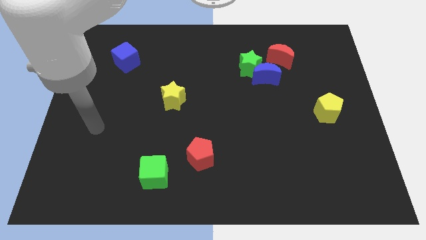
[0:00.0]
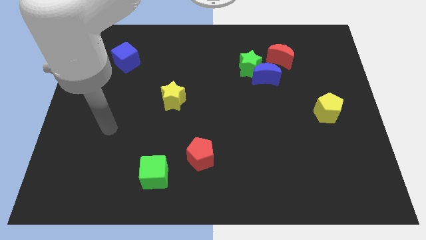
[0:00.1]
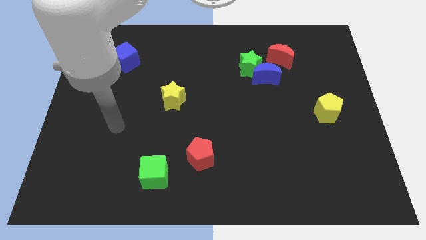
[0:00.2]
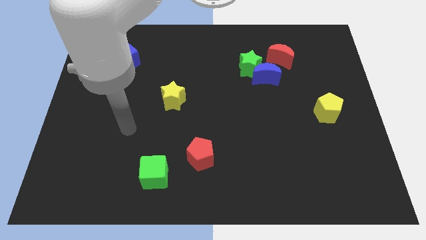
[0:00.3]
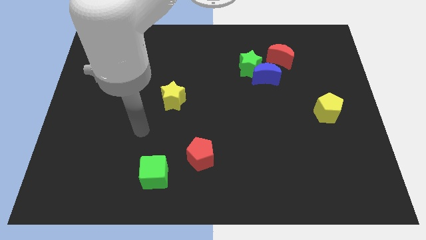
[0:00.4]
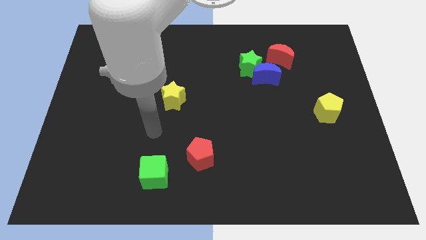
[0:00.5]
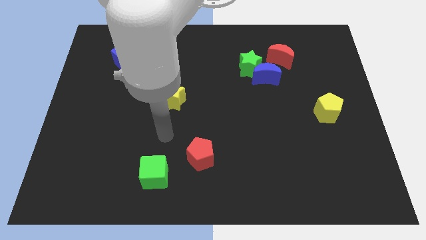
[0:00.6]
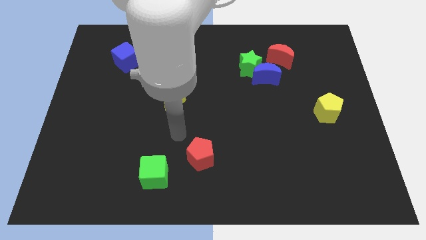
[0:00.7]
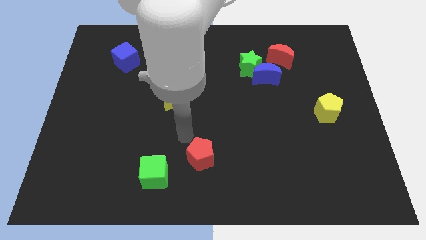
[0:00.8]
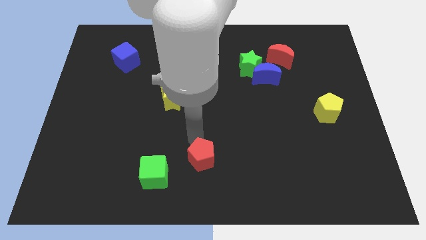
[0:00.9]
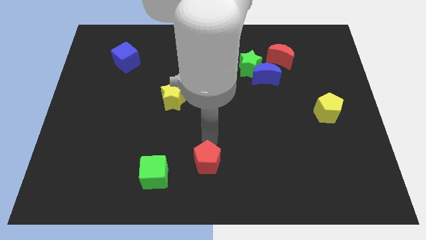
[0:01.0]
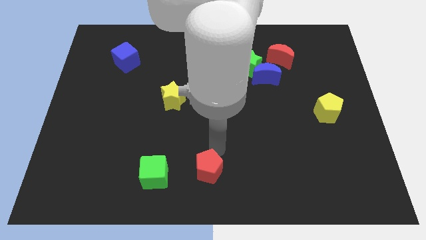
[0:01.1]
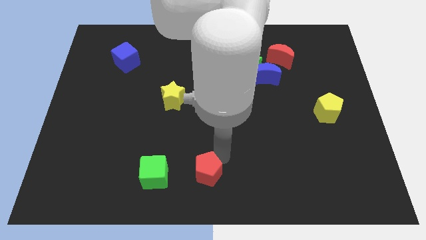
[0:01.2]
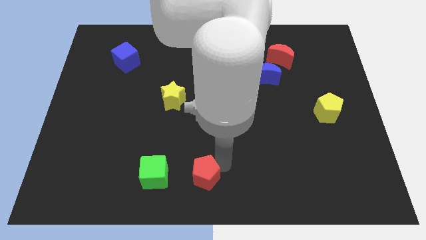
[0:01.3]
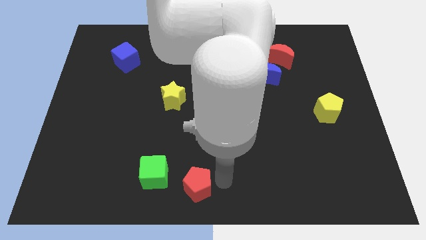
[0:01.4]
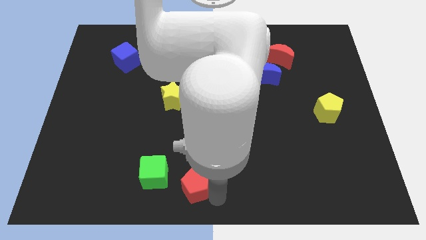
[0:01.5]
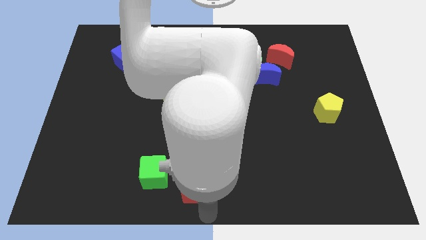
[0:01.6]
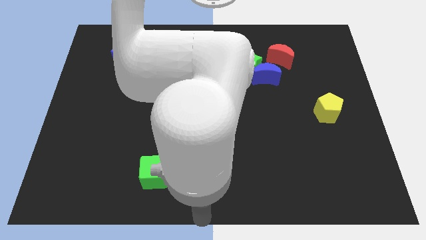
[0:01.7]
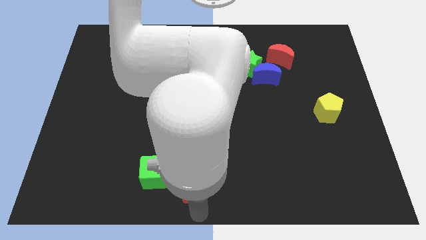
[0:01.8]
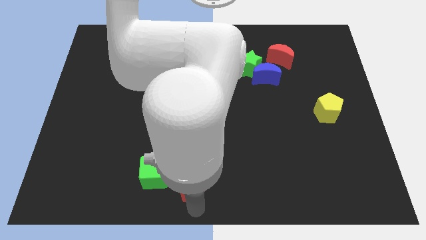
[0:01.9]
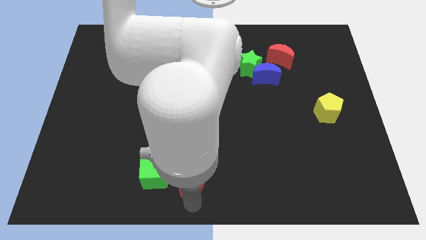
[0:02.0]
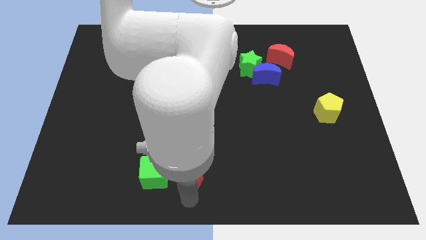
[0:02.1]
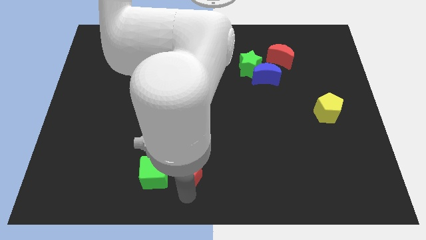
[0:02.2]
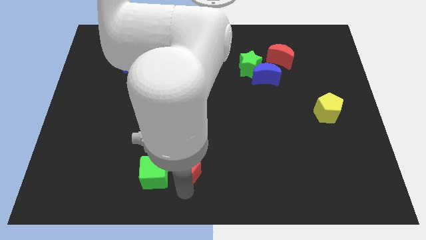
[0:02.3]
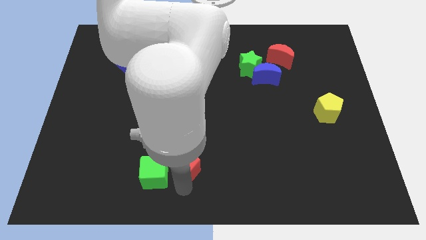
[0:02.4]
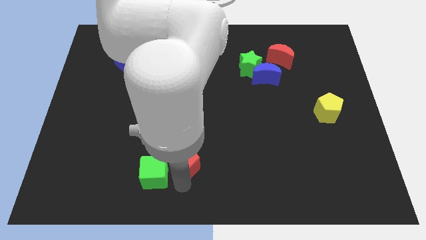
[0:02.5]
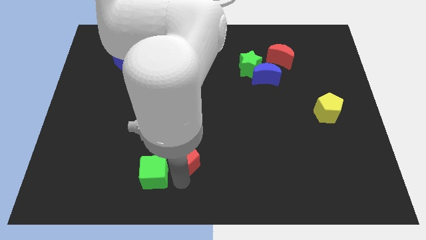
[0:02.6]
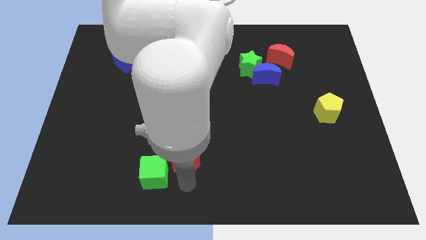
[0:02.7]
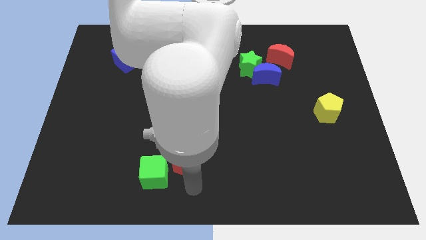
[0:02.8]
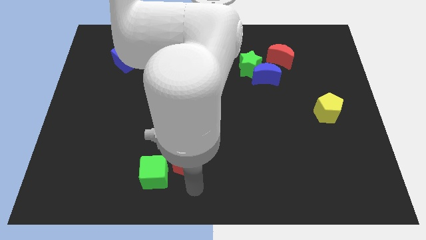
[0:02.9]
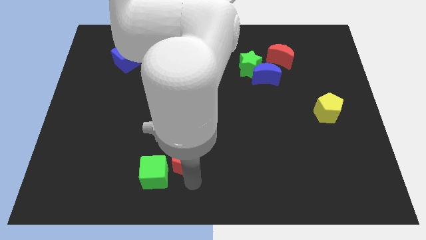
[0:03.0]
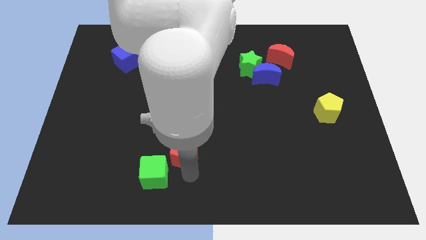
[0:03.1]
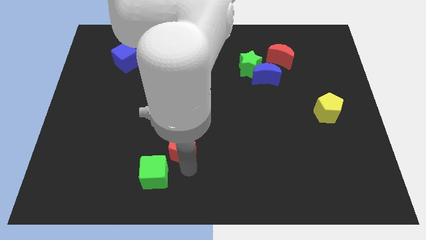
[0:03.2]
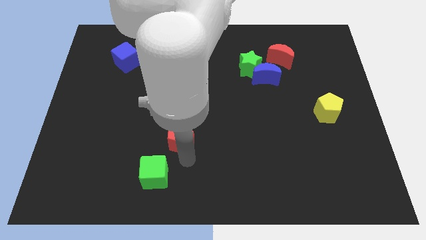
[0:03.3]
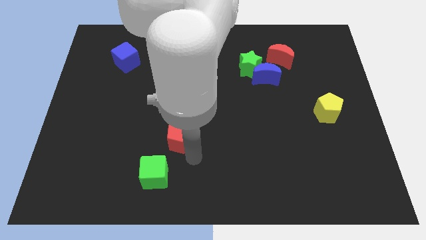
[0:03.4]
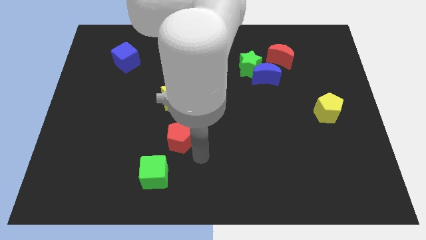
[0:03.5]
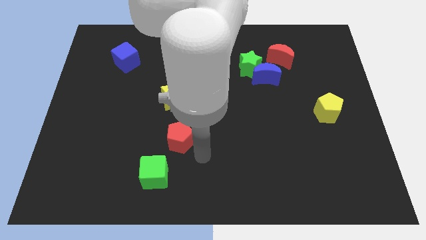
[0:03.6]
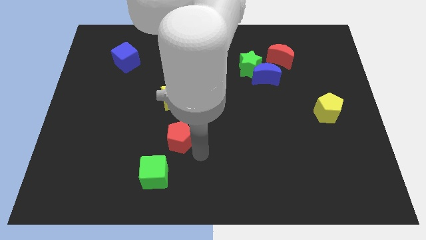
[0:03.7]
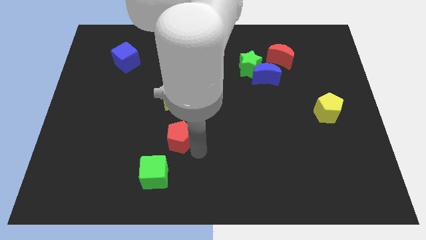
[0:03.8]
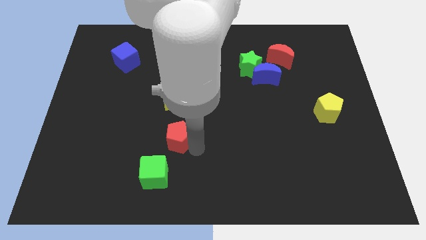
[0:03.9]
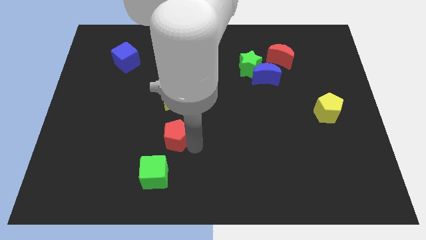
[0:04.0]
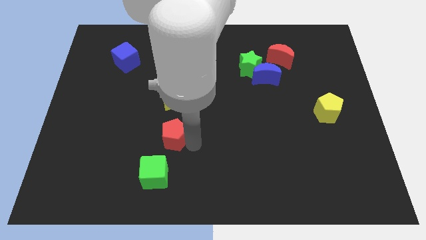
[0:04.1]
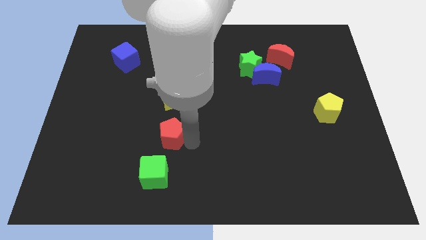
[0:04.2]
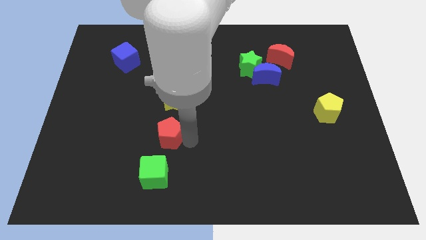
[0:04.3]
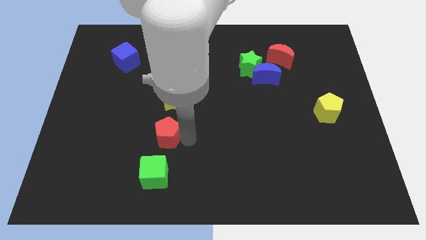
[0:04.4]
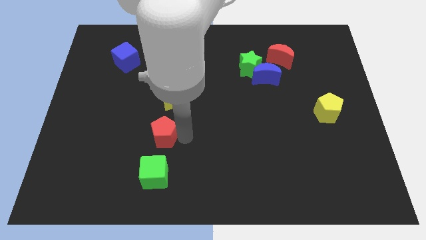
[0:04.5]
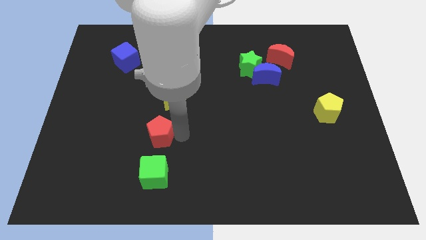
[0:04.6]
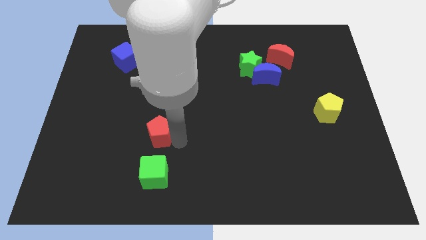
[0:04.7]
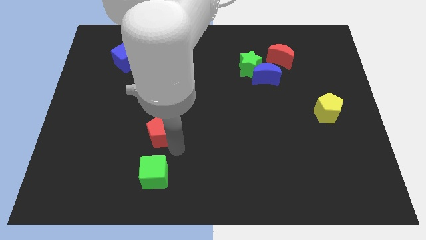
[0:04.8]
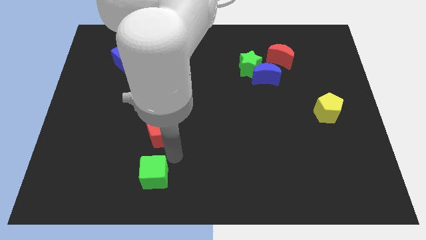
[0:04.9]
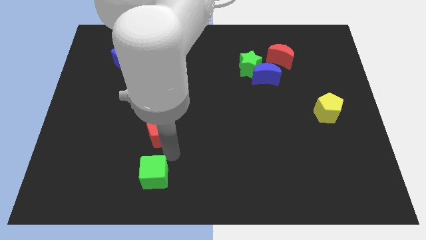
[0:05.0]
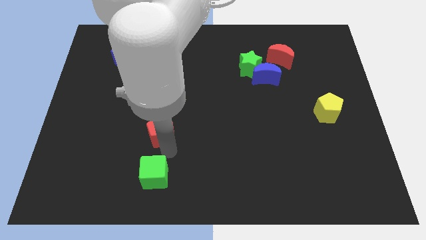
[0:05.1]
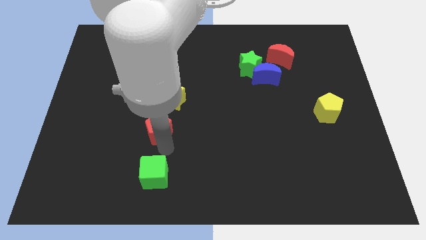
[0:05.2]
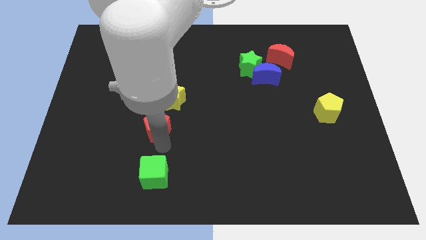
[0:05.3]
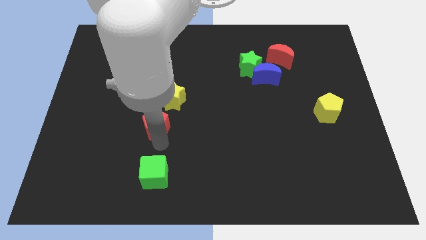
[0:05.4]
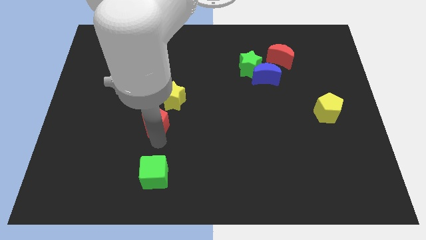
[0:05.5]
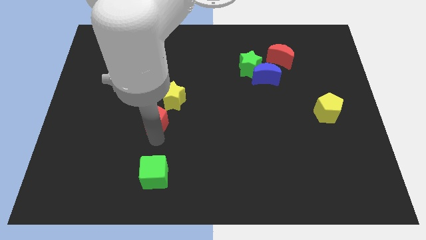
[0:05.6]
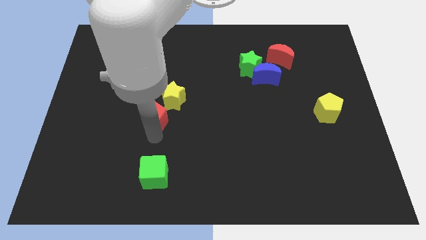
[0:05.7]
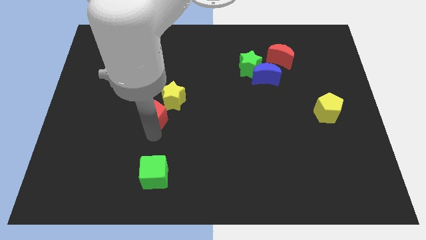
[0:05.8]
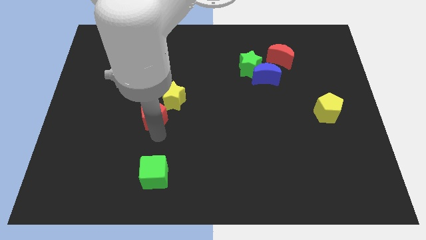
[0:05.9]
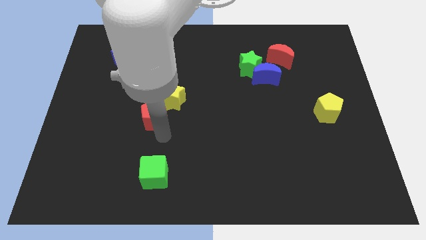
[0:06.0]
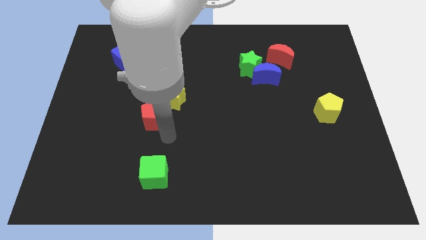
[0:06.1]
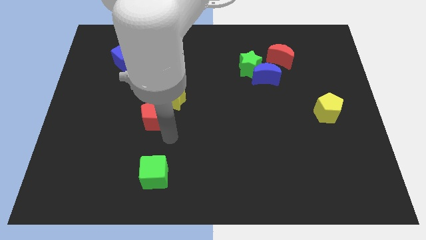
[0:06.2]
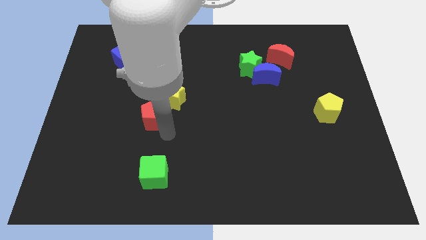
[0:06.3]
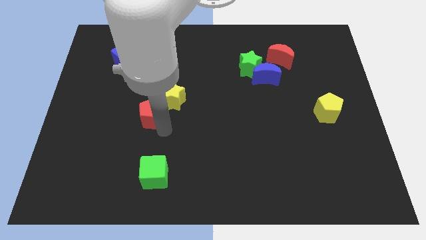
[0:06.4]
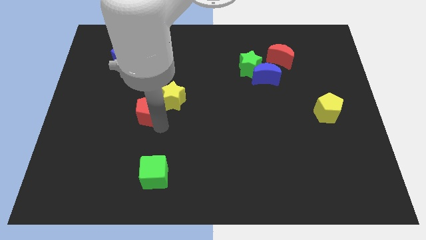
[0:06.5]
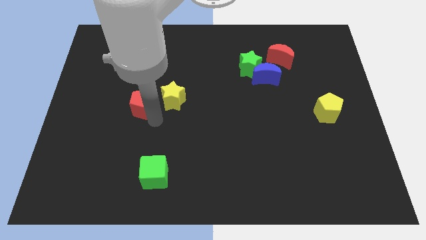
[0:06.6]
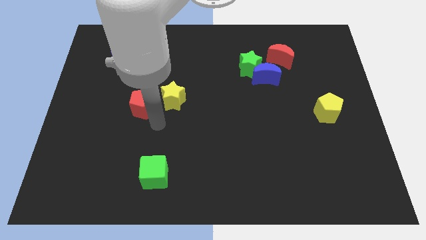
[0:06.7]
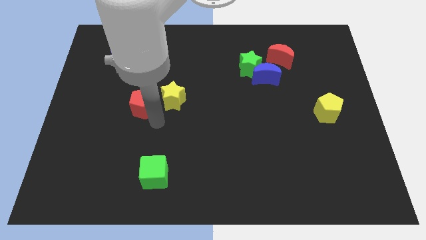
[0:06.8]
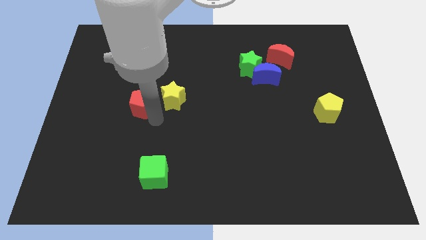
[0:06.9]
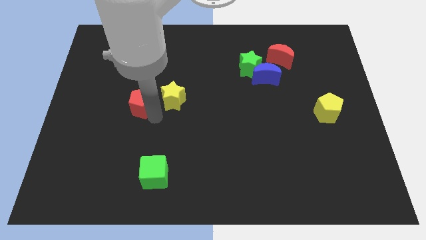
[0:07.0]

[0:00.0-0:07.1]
push the red pentagon diagonally up and to the left

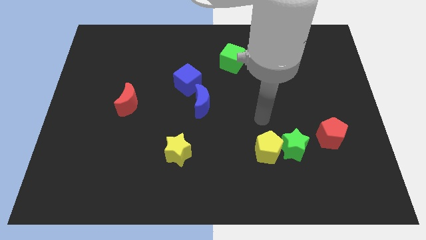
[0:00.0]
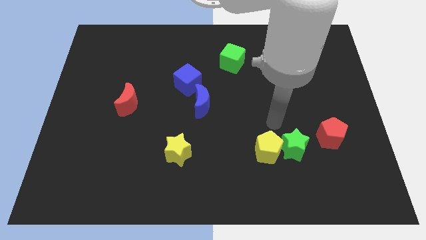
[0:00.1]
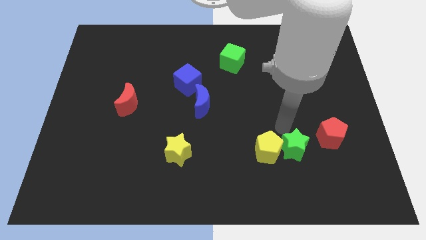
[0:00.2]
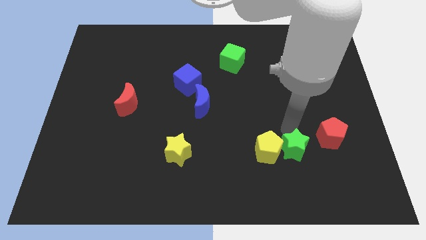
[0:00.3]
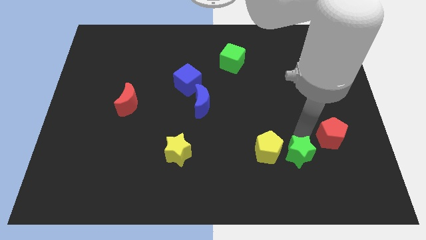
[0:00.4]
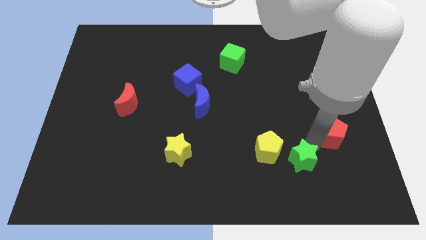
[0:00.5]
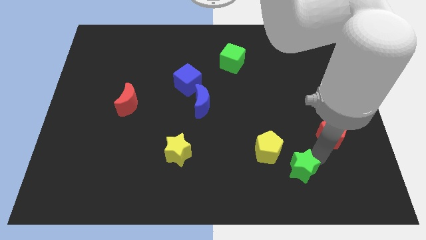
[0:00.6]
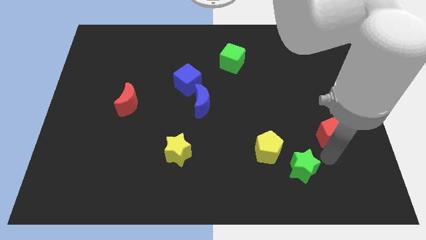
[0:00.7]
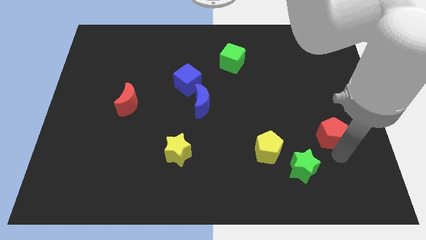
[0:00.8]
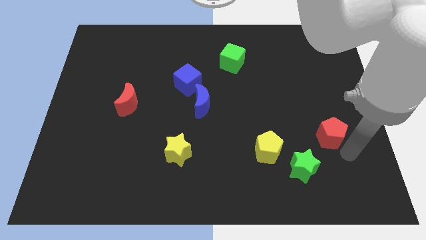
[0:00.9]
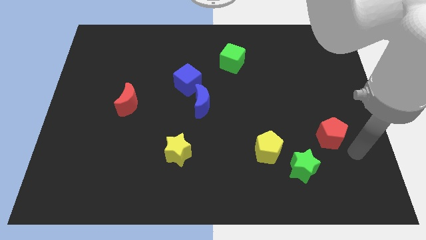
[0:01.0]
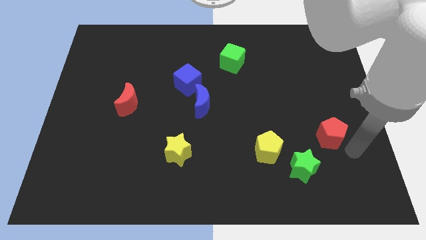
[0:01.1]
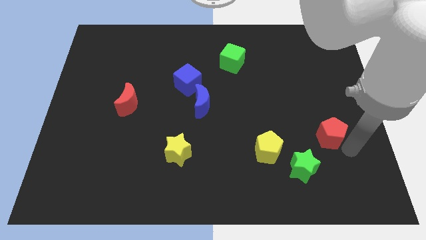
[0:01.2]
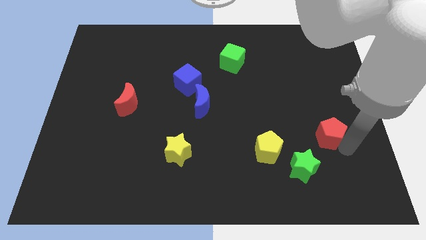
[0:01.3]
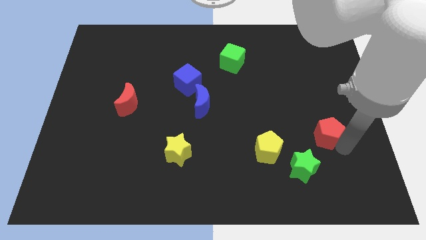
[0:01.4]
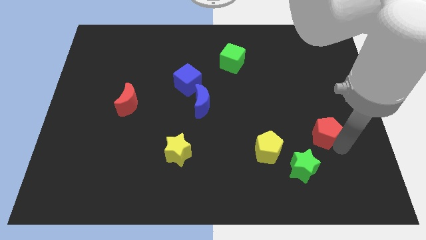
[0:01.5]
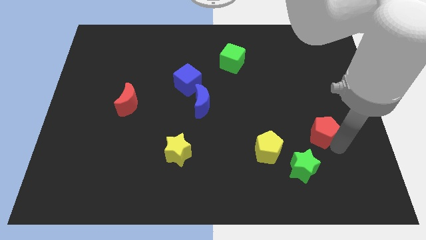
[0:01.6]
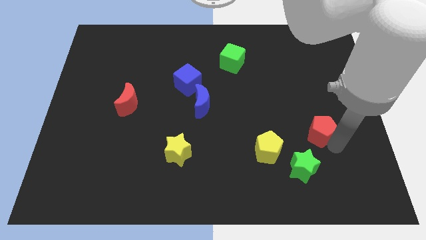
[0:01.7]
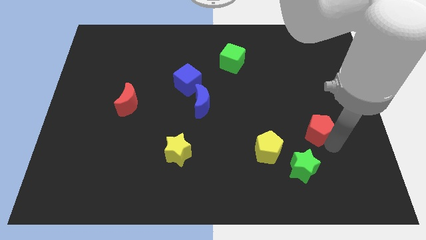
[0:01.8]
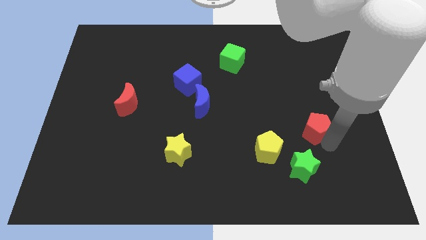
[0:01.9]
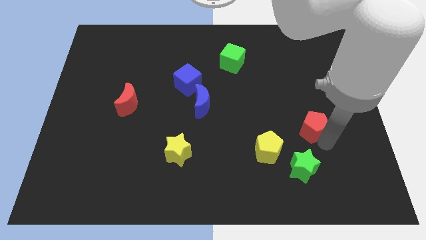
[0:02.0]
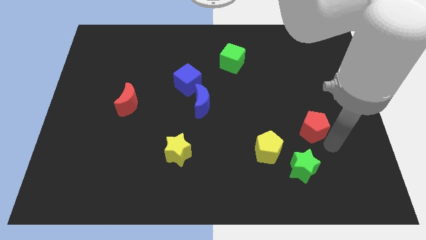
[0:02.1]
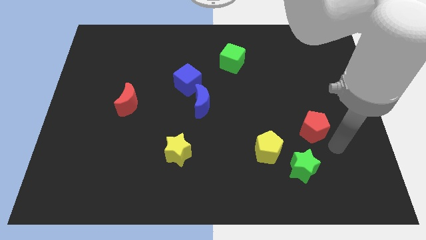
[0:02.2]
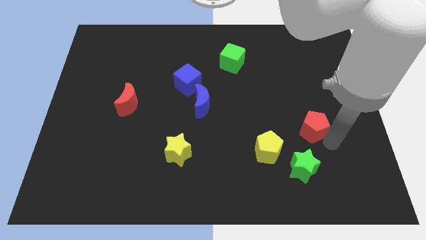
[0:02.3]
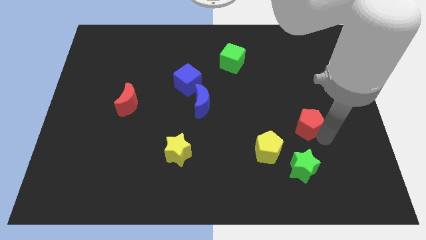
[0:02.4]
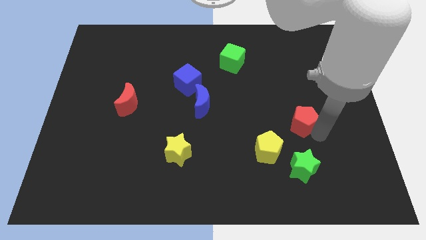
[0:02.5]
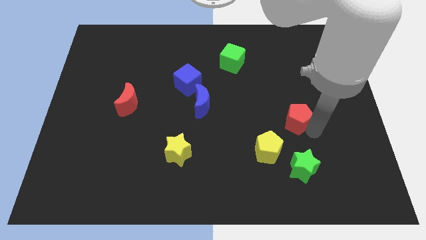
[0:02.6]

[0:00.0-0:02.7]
slightly push the red pentagon upwards and to the left
